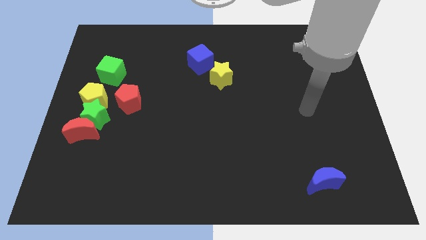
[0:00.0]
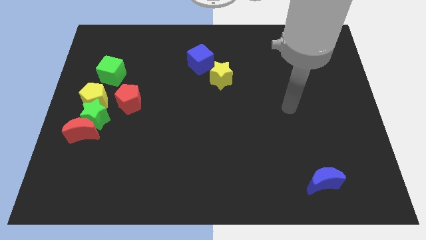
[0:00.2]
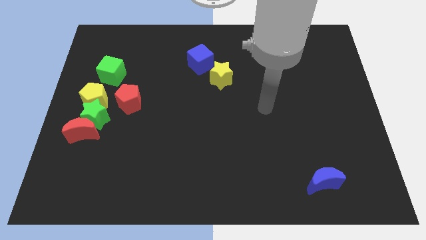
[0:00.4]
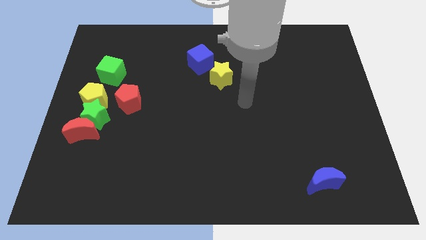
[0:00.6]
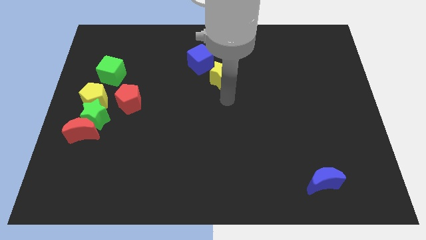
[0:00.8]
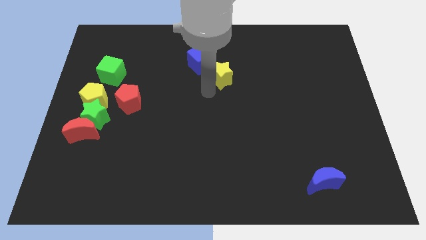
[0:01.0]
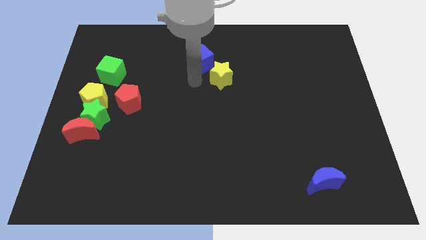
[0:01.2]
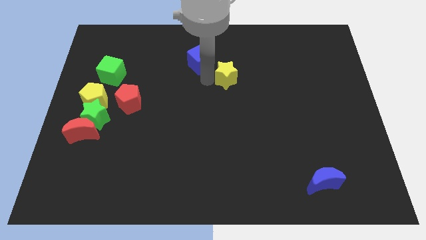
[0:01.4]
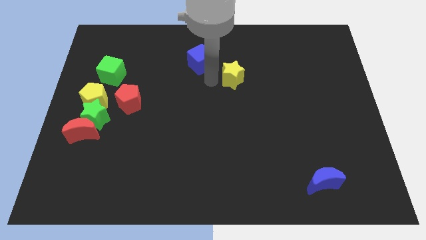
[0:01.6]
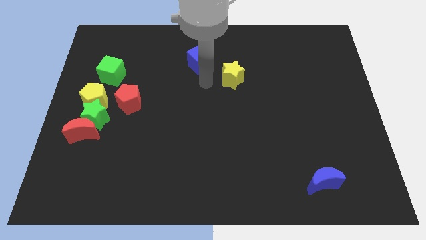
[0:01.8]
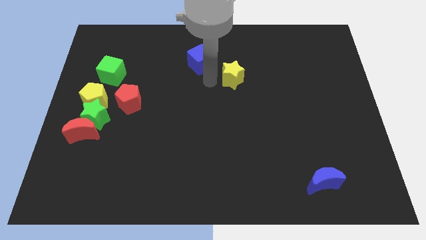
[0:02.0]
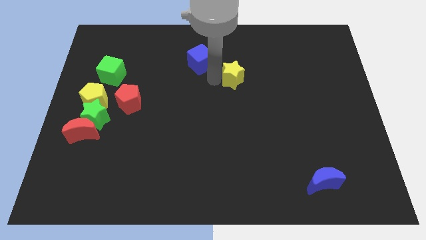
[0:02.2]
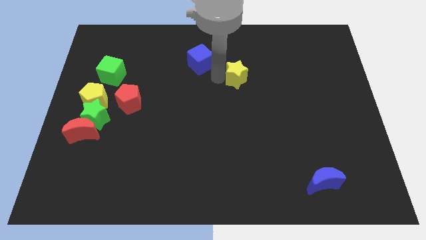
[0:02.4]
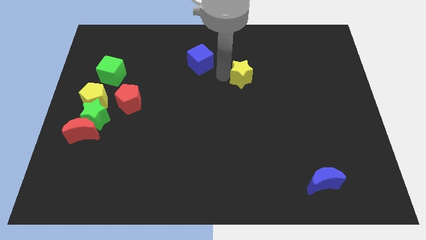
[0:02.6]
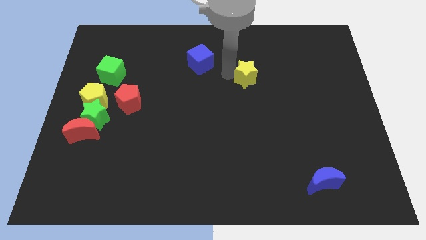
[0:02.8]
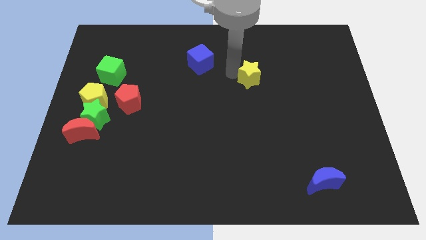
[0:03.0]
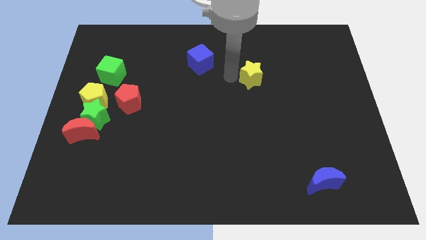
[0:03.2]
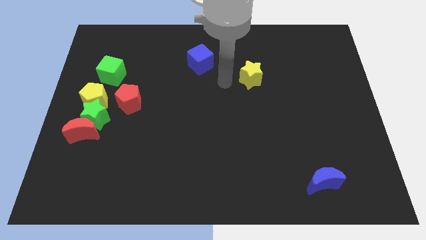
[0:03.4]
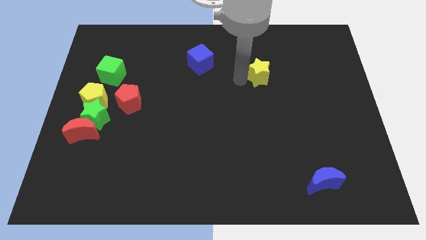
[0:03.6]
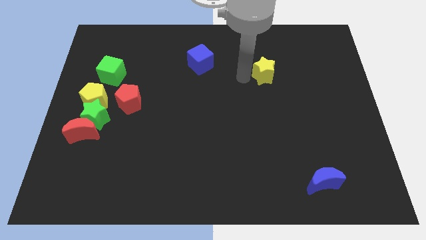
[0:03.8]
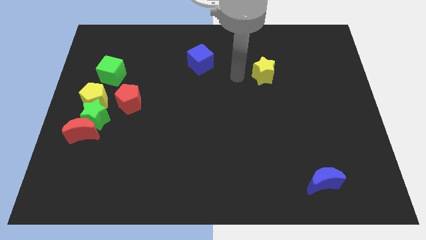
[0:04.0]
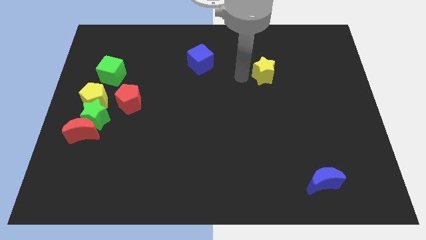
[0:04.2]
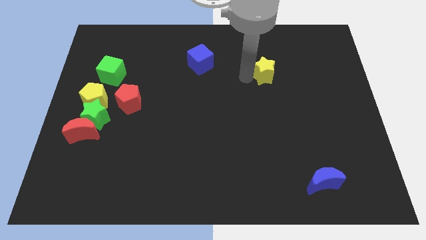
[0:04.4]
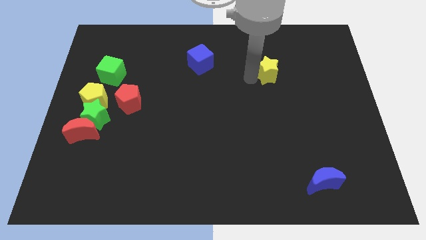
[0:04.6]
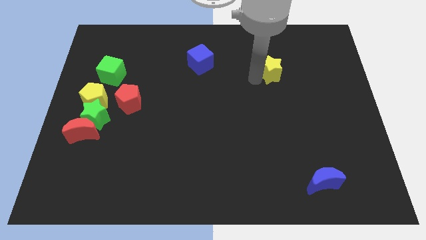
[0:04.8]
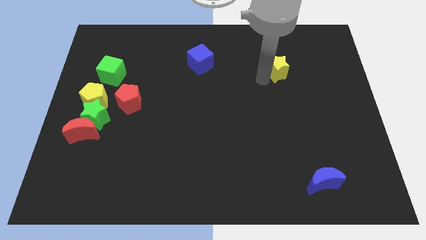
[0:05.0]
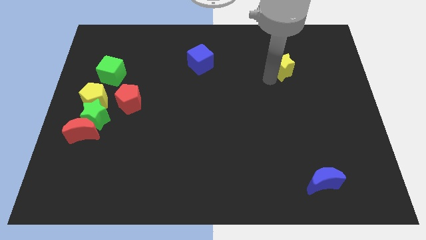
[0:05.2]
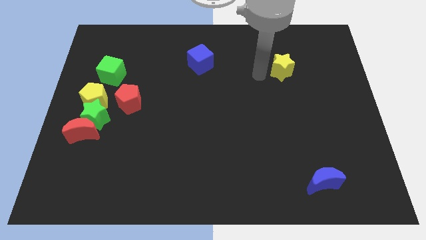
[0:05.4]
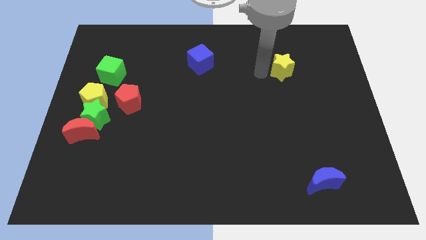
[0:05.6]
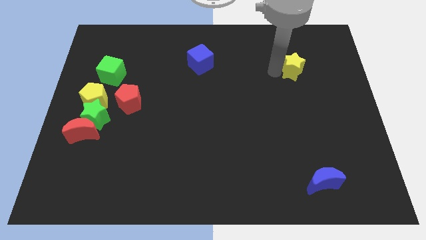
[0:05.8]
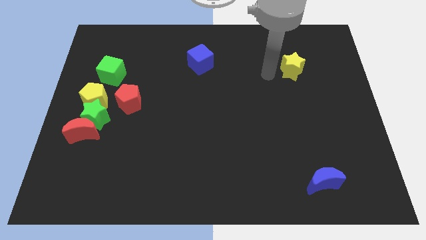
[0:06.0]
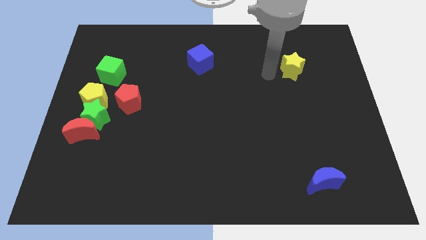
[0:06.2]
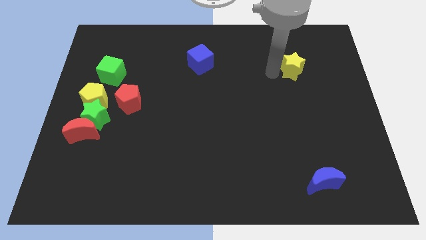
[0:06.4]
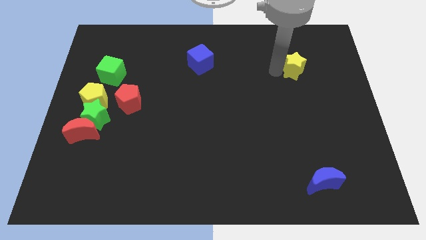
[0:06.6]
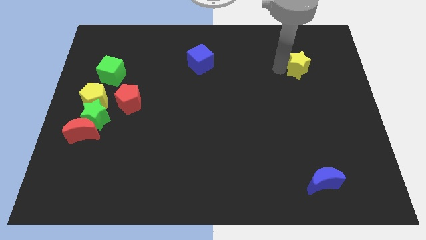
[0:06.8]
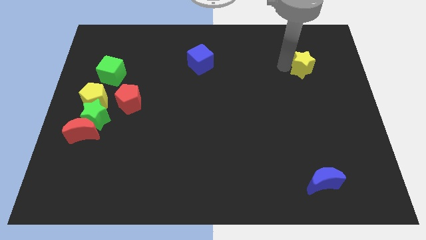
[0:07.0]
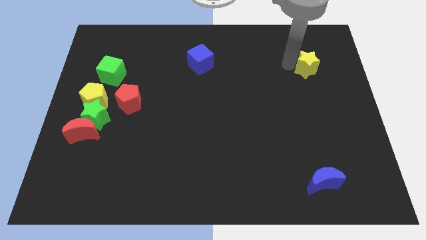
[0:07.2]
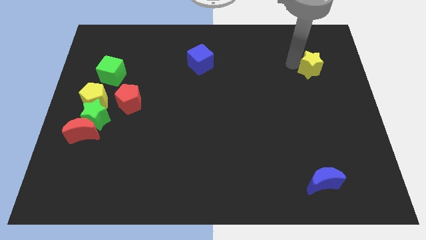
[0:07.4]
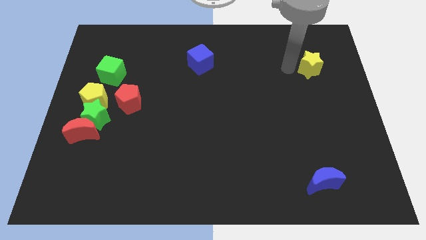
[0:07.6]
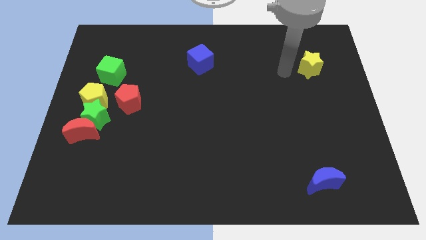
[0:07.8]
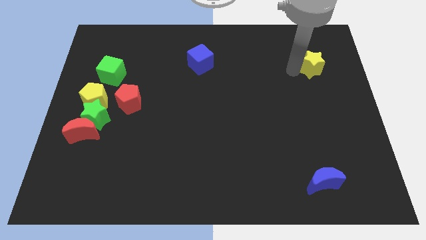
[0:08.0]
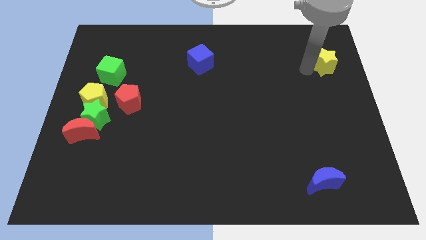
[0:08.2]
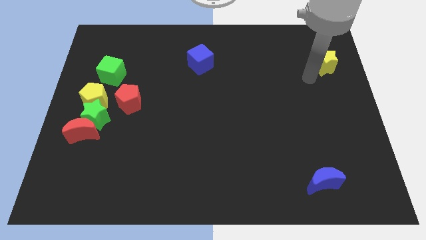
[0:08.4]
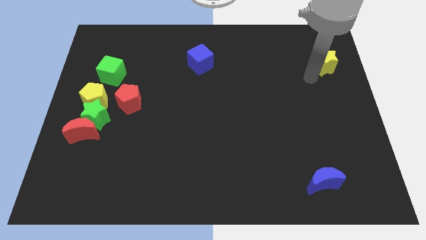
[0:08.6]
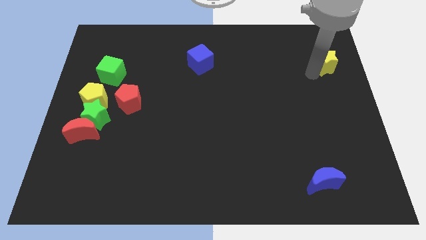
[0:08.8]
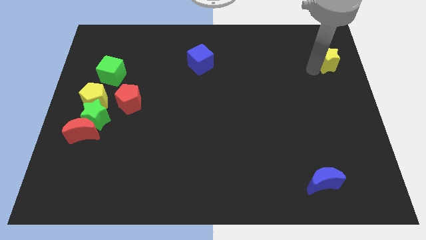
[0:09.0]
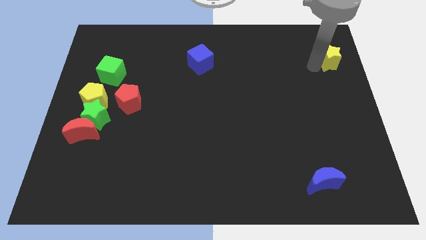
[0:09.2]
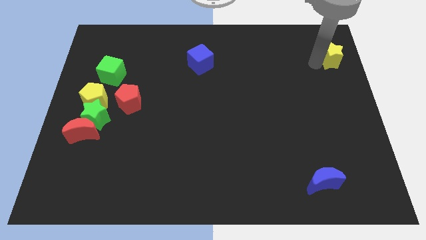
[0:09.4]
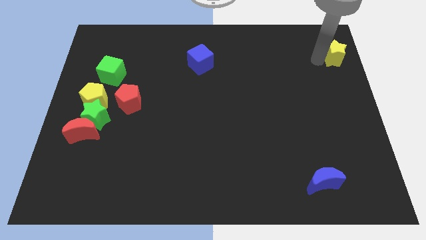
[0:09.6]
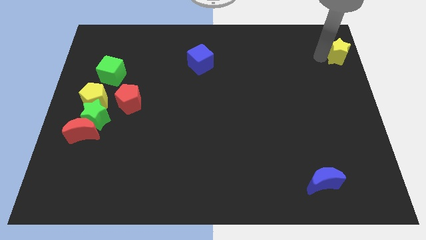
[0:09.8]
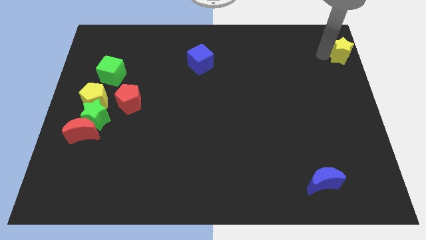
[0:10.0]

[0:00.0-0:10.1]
slide the yellow star to the upper right corner
